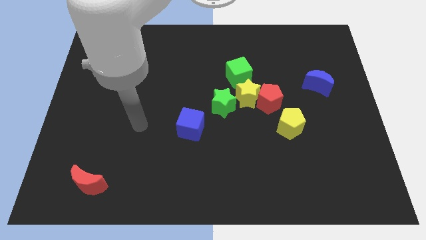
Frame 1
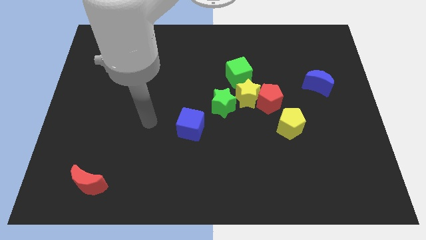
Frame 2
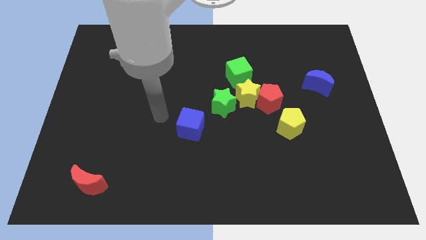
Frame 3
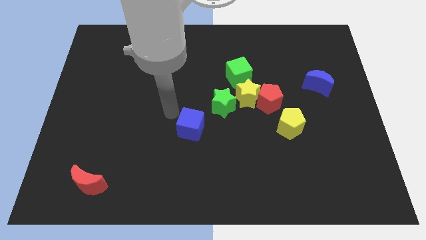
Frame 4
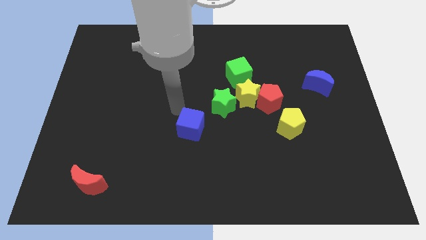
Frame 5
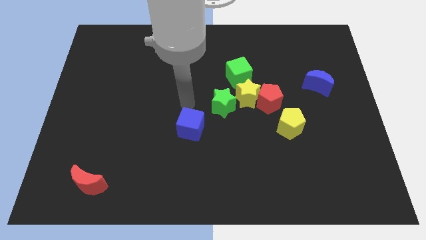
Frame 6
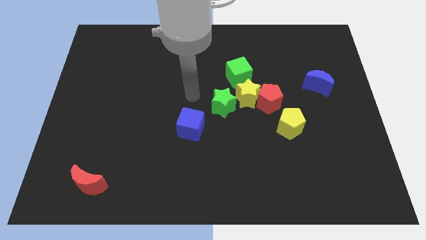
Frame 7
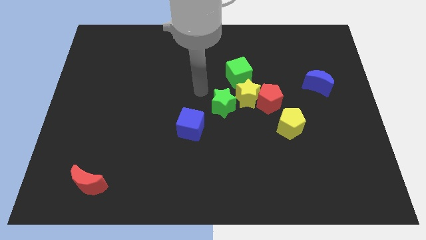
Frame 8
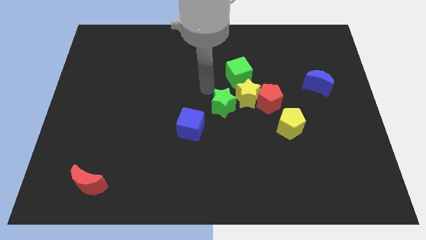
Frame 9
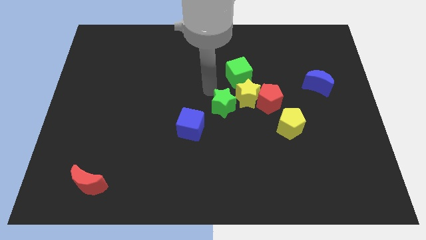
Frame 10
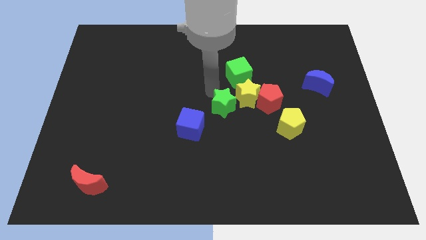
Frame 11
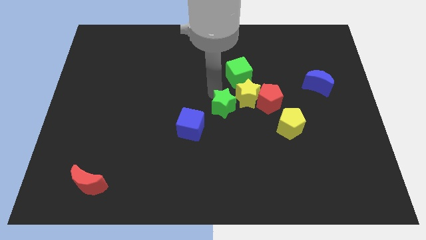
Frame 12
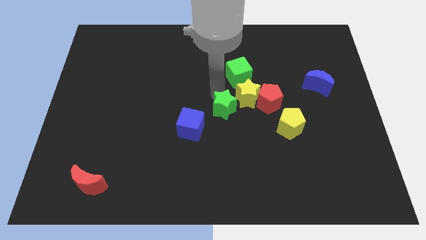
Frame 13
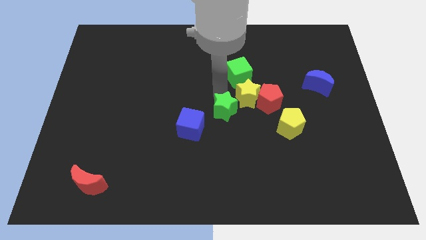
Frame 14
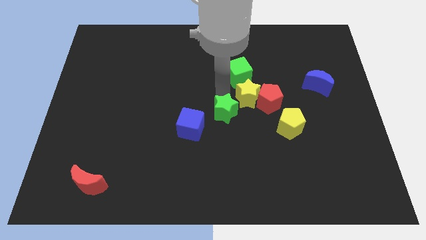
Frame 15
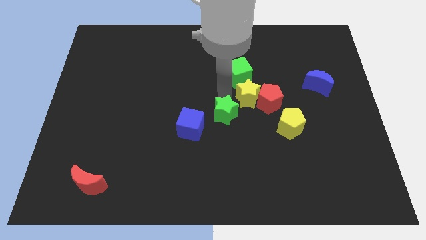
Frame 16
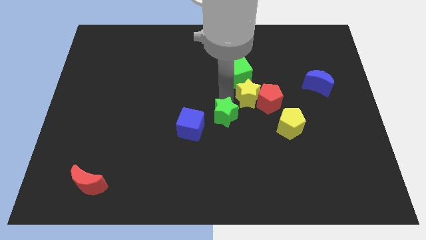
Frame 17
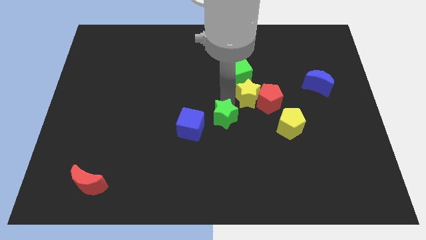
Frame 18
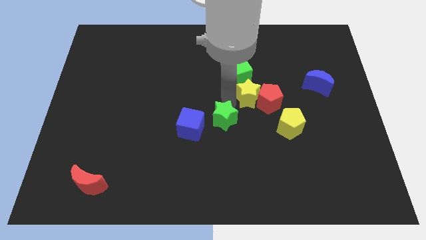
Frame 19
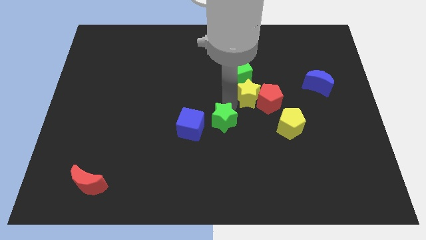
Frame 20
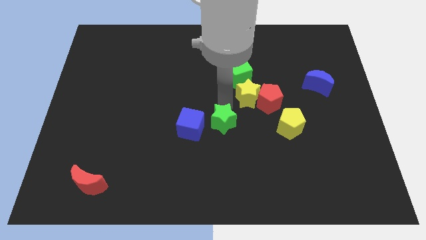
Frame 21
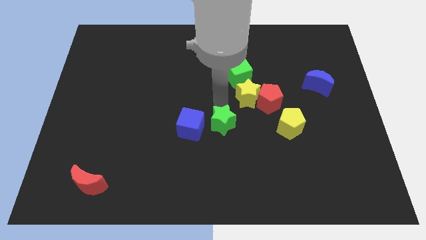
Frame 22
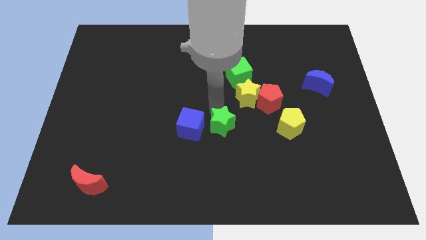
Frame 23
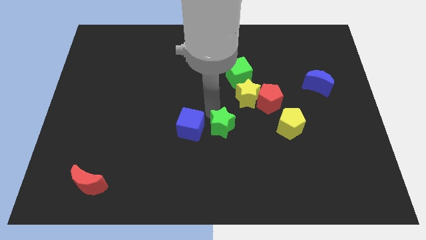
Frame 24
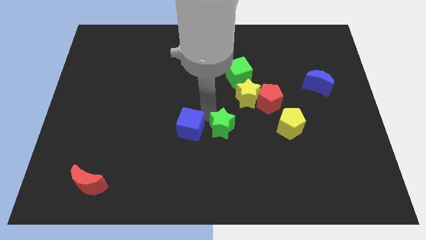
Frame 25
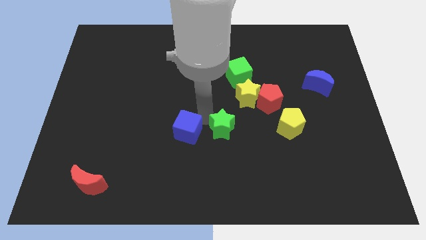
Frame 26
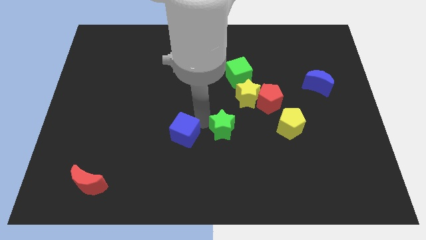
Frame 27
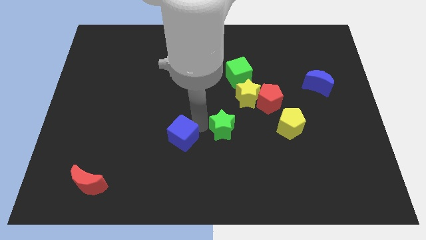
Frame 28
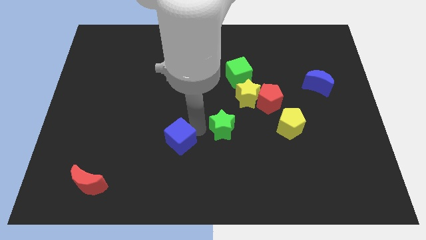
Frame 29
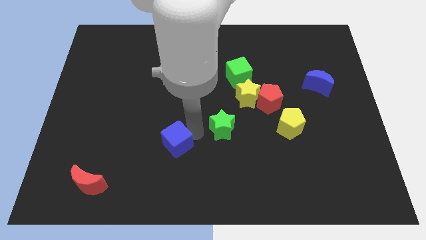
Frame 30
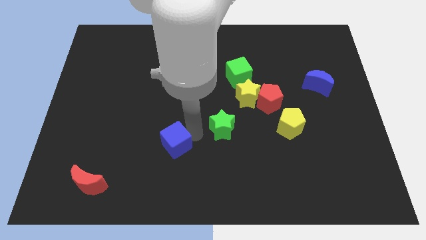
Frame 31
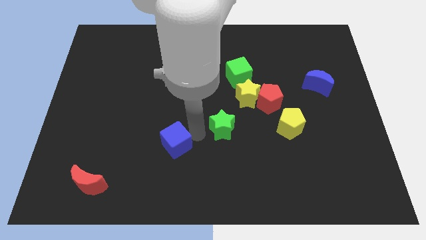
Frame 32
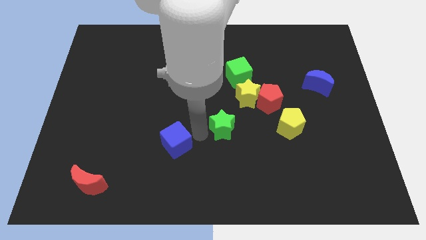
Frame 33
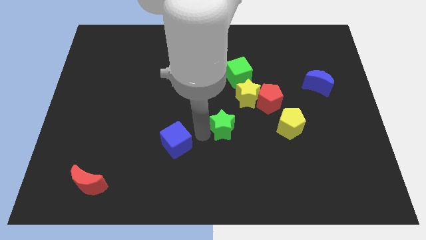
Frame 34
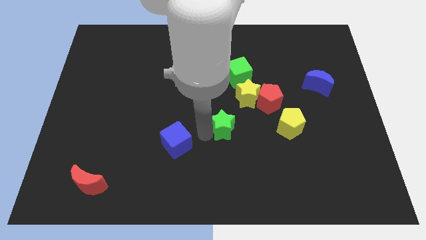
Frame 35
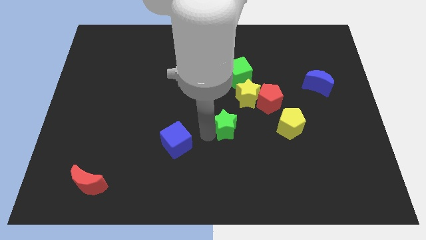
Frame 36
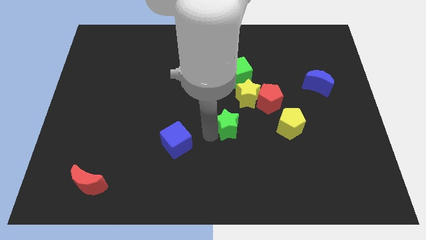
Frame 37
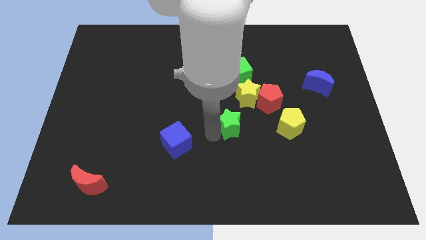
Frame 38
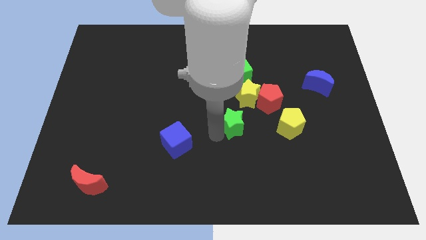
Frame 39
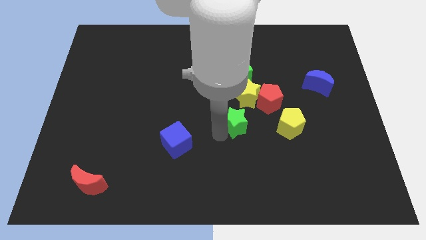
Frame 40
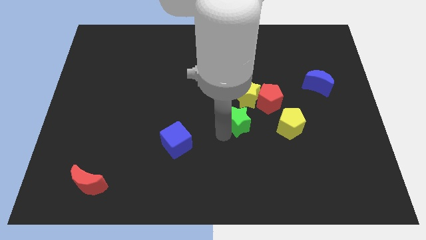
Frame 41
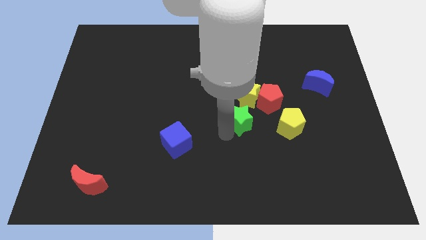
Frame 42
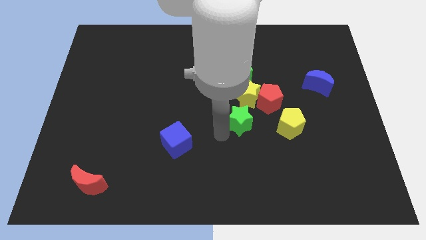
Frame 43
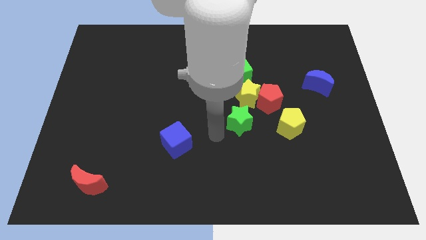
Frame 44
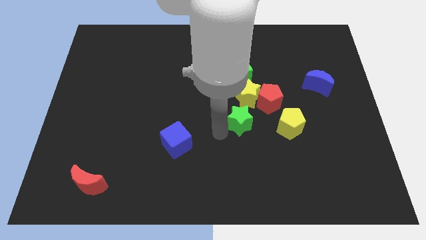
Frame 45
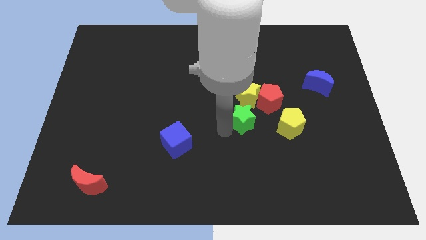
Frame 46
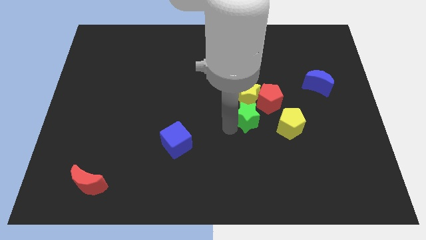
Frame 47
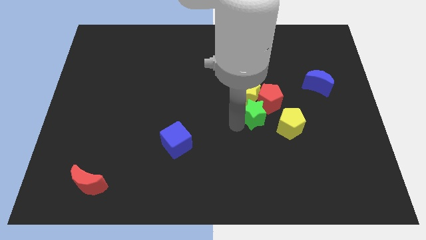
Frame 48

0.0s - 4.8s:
push the green star close to the red pentagon

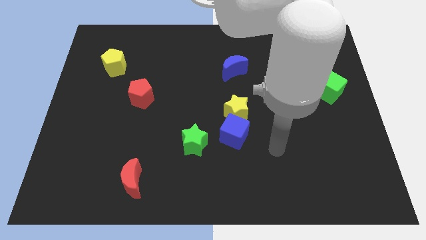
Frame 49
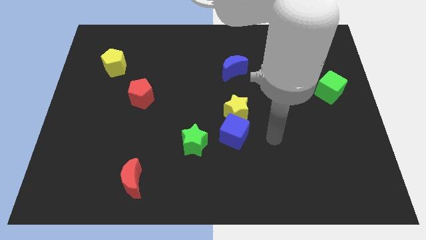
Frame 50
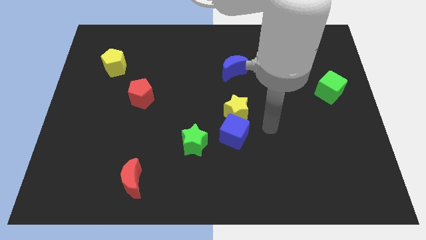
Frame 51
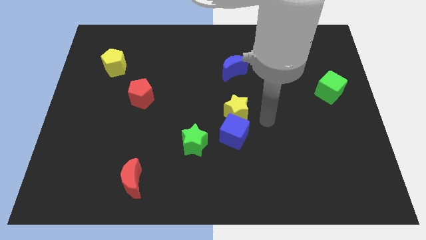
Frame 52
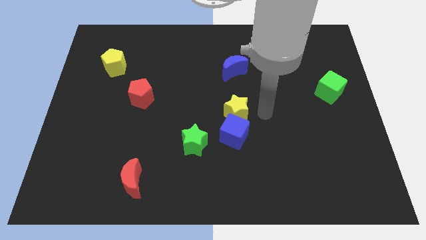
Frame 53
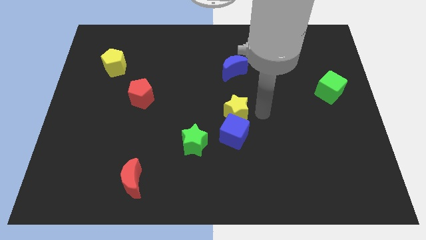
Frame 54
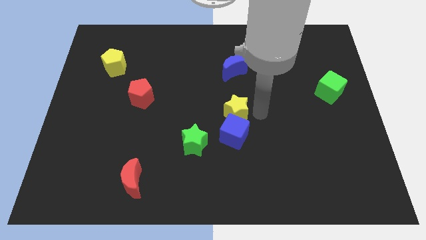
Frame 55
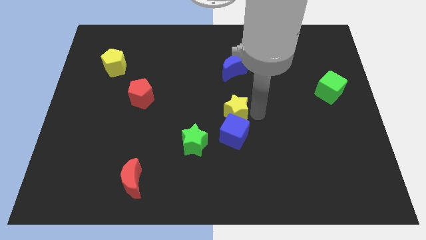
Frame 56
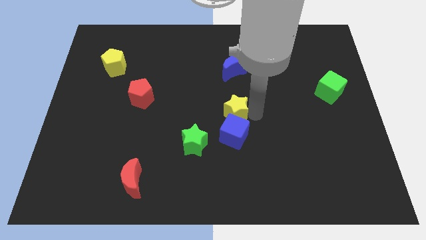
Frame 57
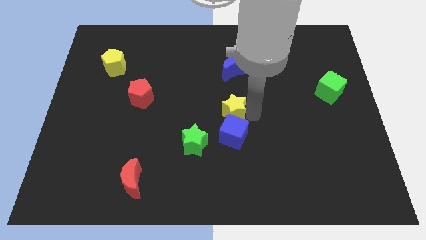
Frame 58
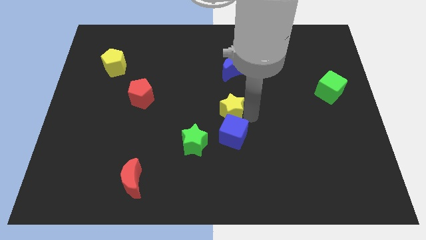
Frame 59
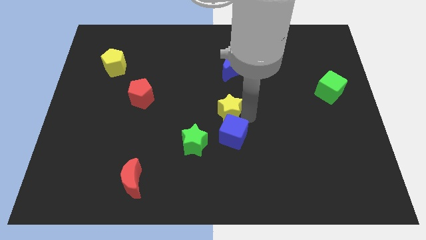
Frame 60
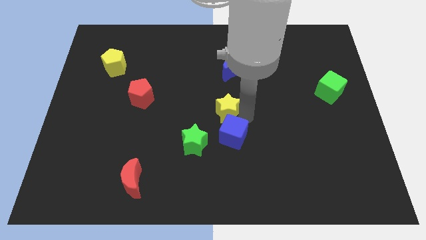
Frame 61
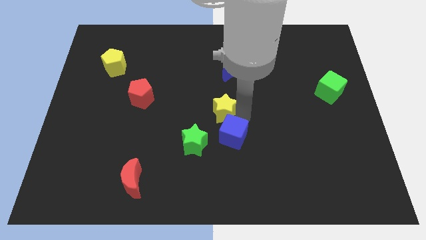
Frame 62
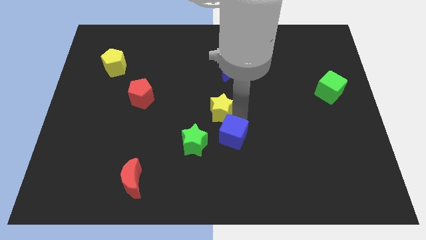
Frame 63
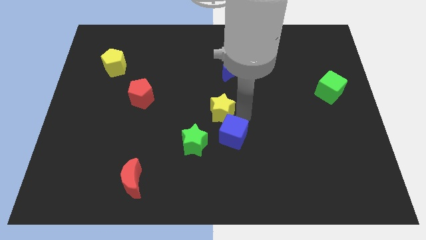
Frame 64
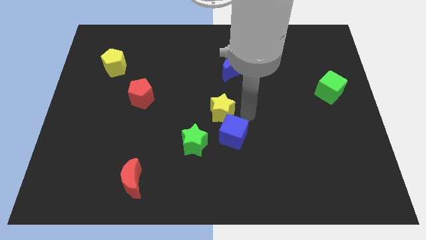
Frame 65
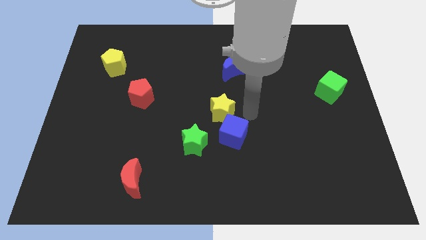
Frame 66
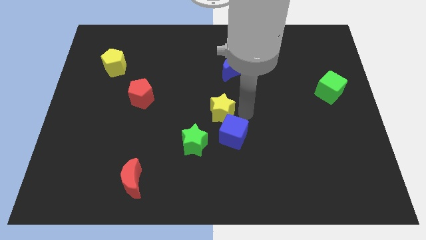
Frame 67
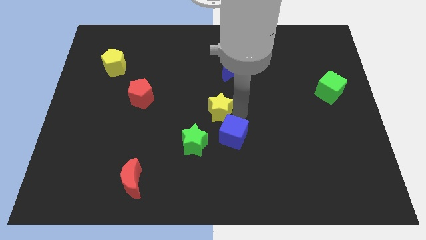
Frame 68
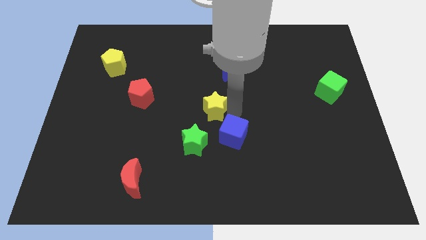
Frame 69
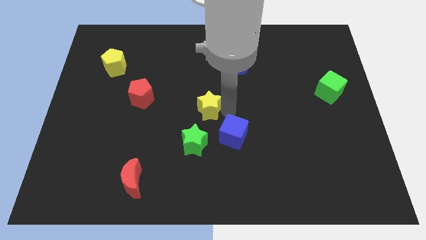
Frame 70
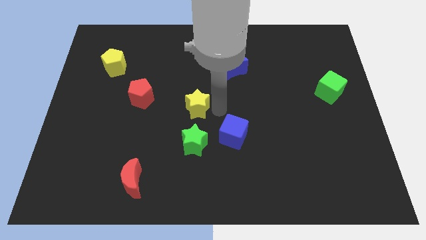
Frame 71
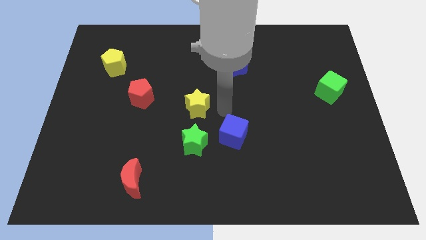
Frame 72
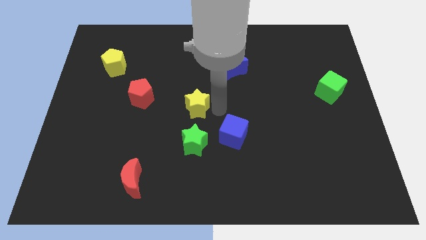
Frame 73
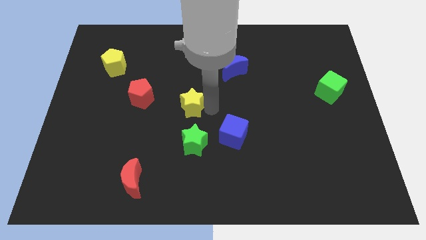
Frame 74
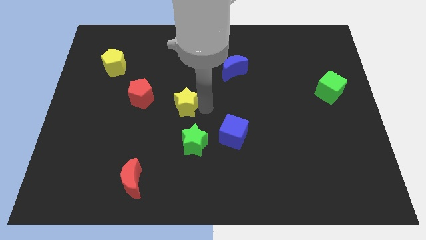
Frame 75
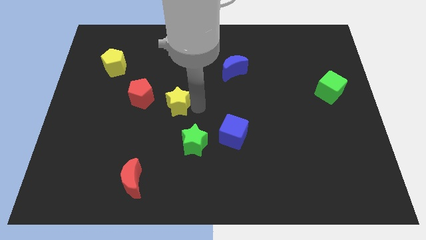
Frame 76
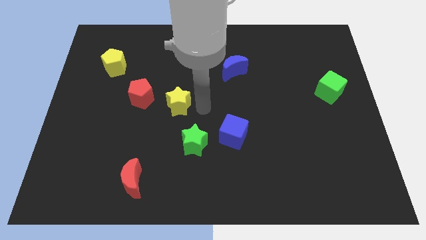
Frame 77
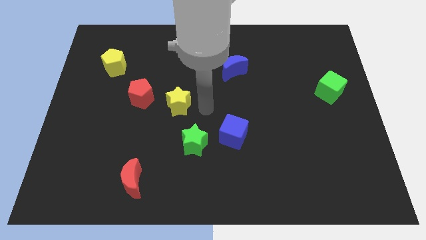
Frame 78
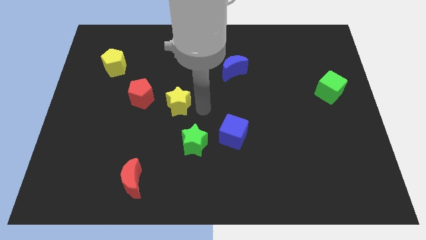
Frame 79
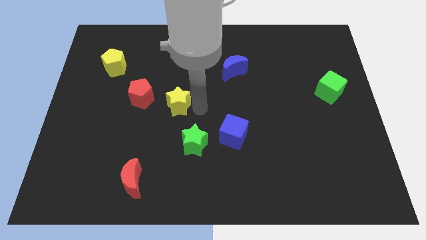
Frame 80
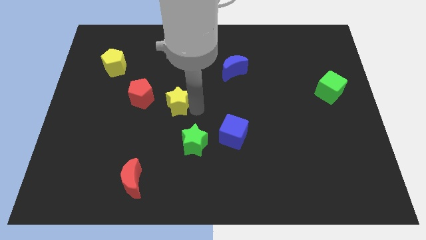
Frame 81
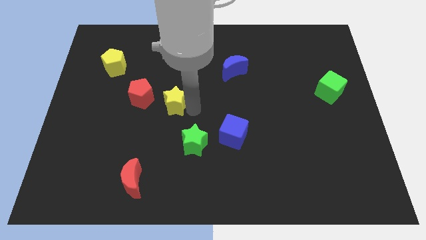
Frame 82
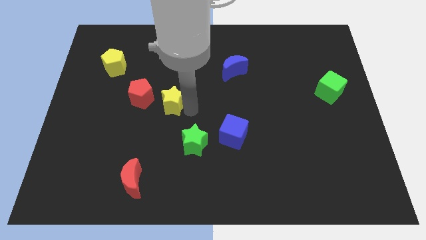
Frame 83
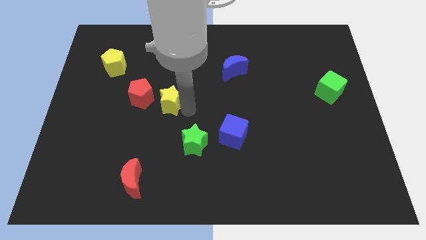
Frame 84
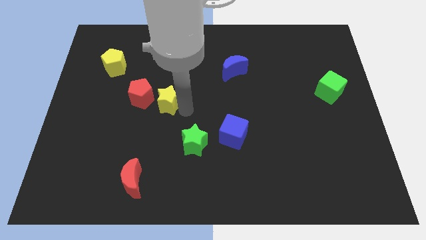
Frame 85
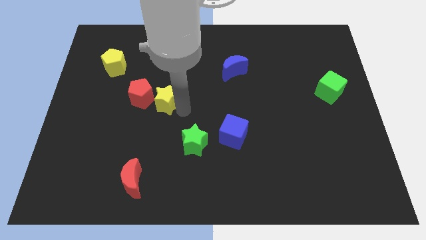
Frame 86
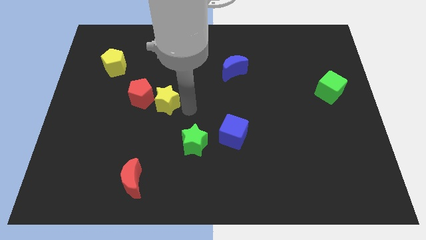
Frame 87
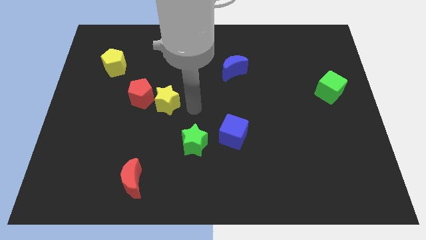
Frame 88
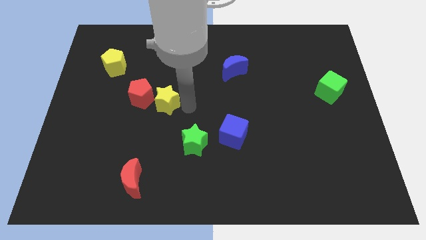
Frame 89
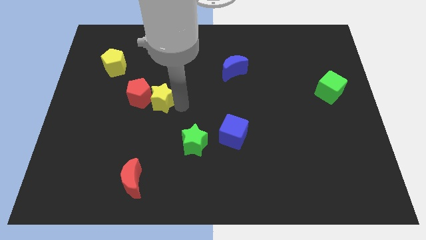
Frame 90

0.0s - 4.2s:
slide the yellow star to the red pentagon
